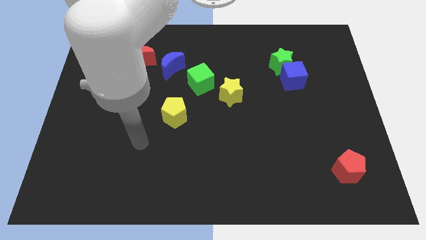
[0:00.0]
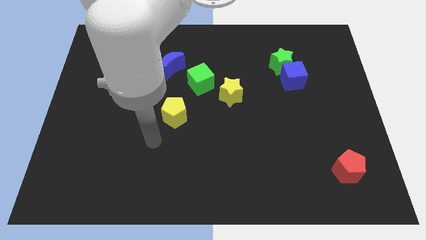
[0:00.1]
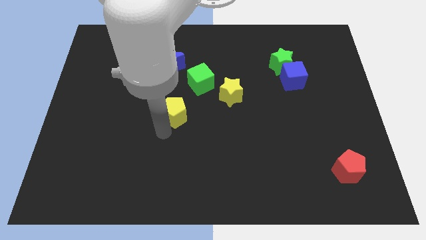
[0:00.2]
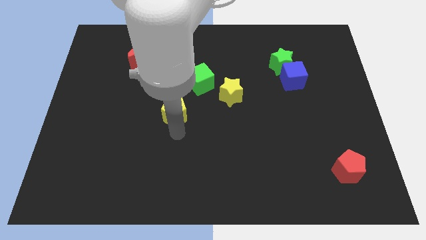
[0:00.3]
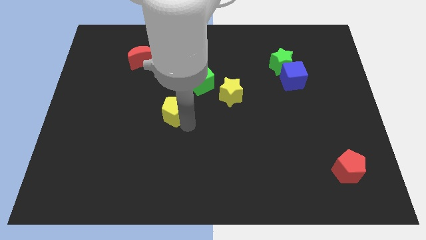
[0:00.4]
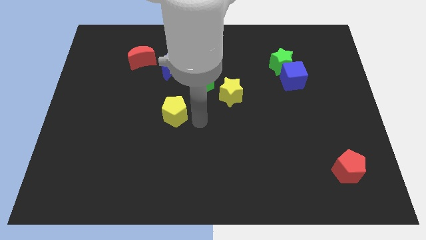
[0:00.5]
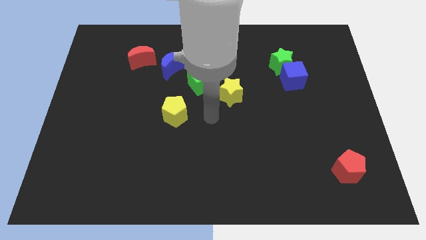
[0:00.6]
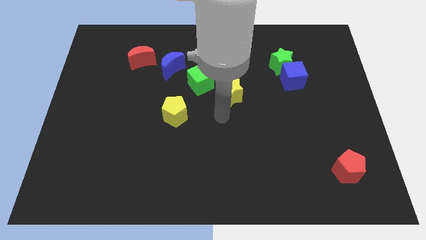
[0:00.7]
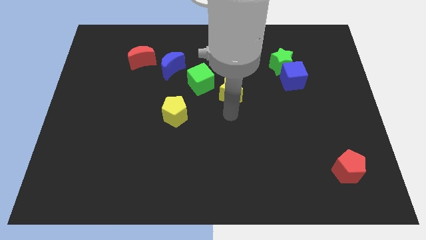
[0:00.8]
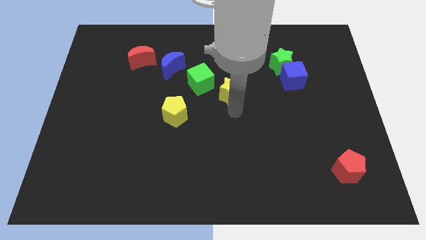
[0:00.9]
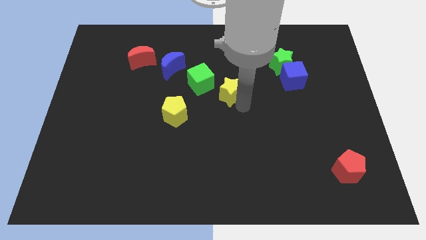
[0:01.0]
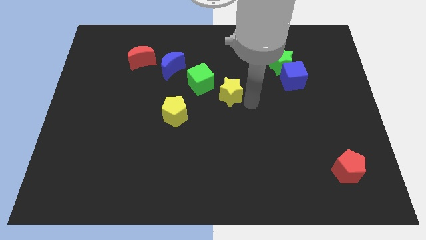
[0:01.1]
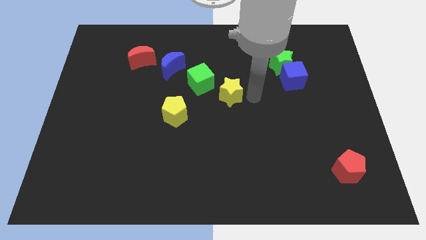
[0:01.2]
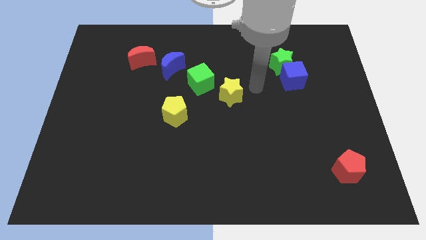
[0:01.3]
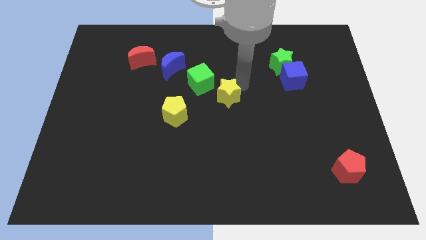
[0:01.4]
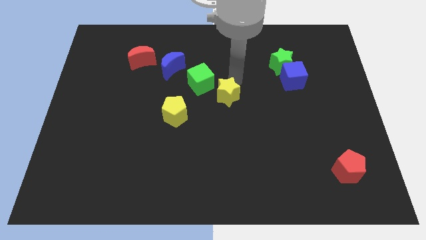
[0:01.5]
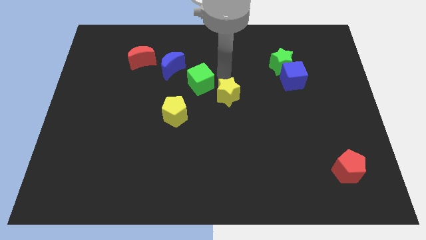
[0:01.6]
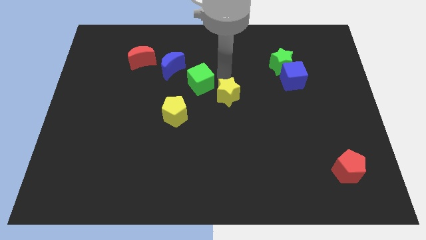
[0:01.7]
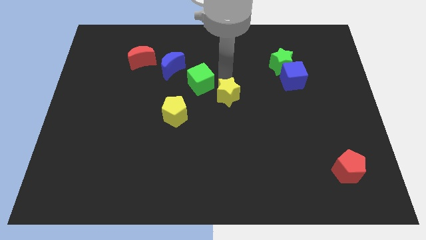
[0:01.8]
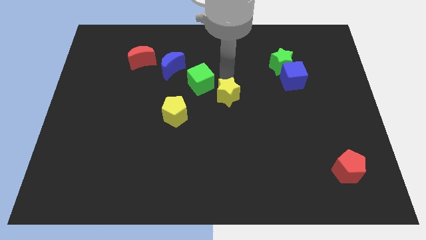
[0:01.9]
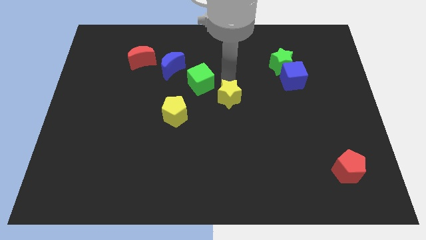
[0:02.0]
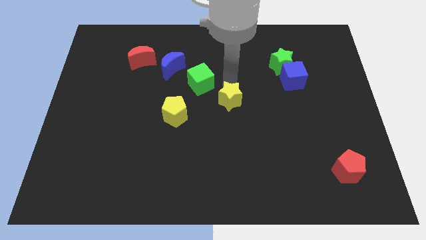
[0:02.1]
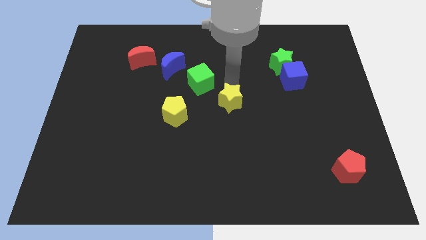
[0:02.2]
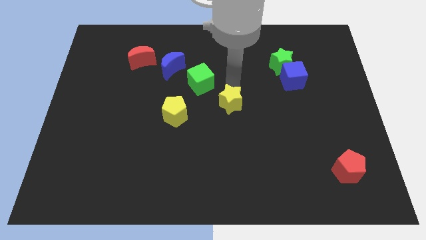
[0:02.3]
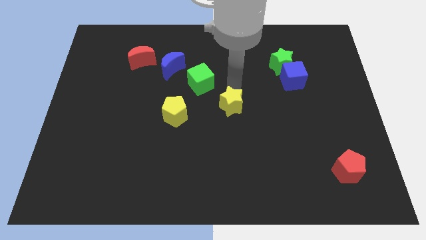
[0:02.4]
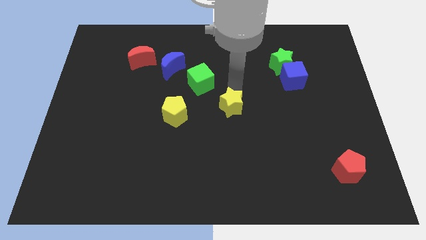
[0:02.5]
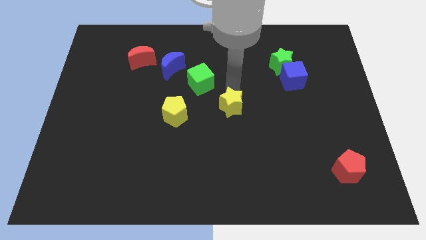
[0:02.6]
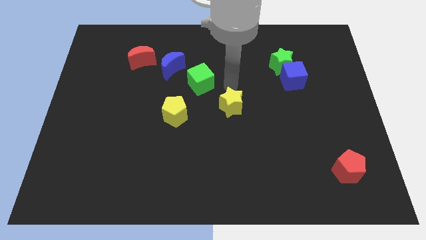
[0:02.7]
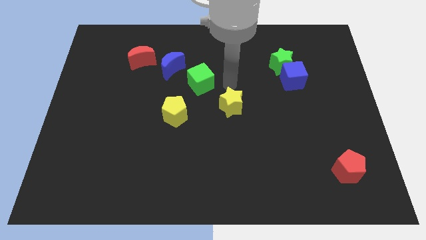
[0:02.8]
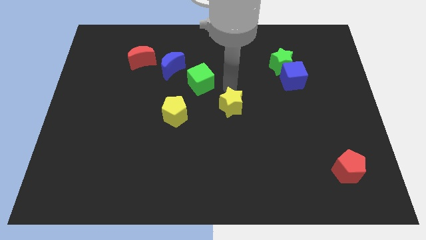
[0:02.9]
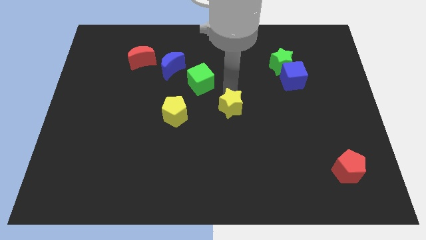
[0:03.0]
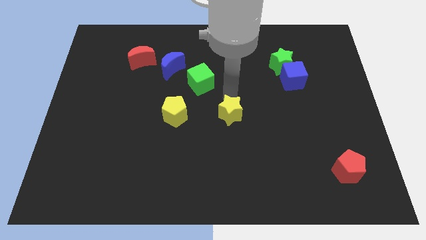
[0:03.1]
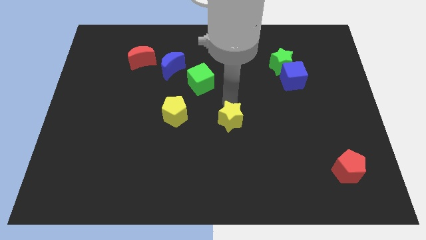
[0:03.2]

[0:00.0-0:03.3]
push the yellow star downwards a little bit

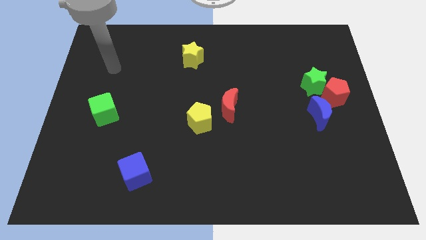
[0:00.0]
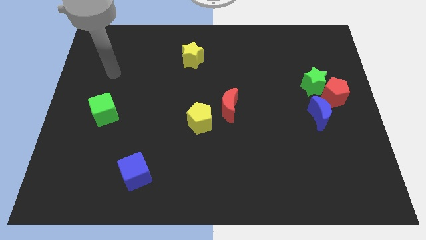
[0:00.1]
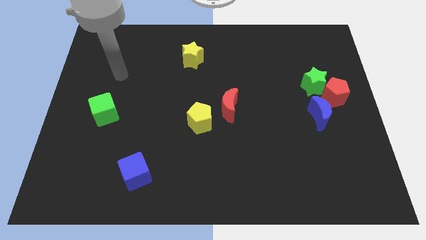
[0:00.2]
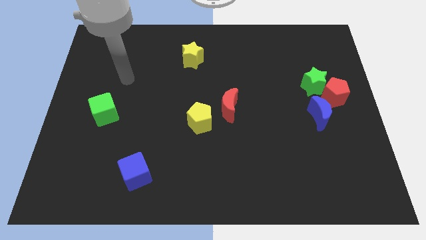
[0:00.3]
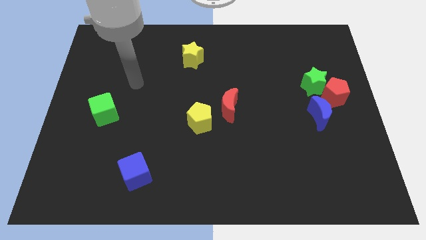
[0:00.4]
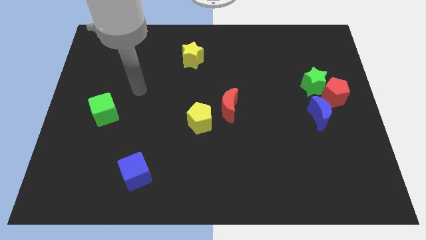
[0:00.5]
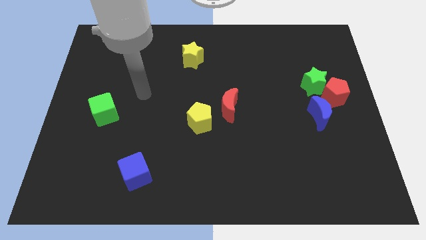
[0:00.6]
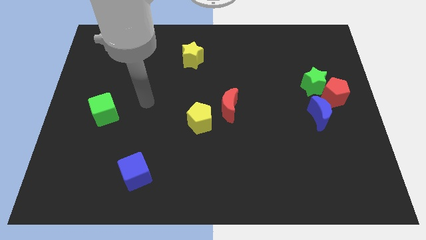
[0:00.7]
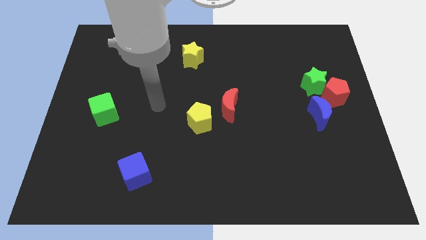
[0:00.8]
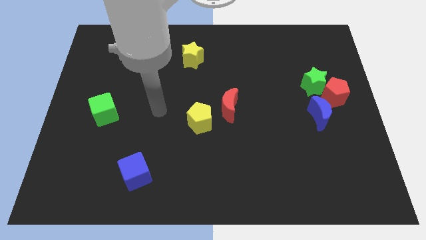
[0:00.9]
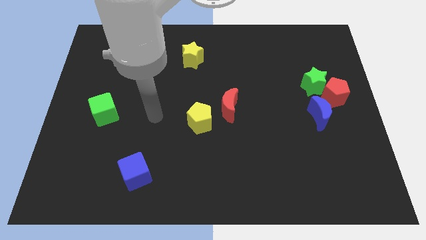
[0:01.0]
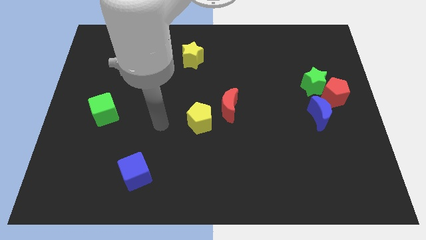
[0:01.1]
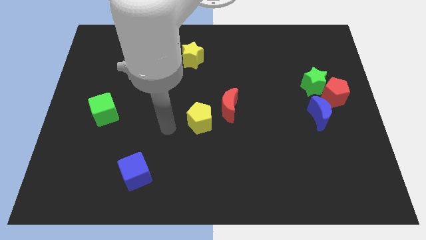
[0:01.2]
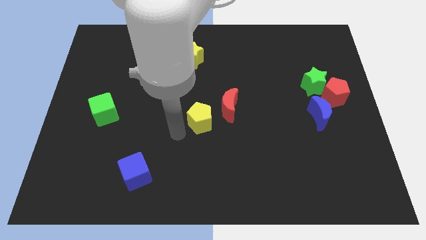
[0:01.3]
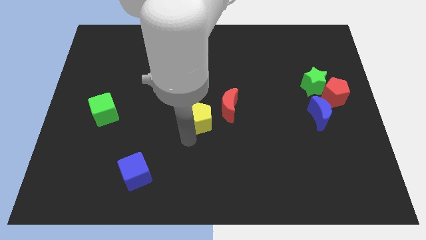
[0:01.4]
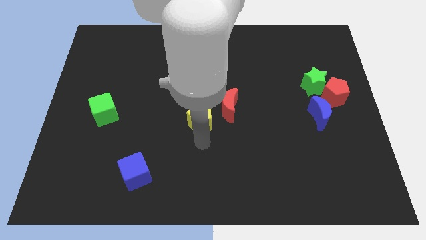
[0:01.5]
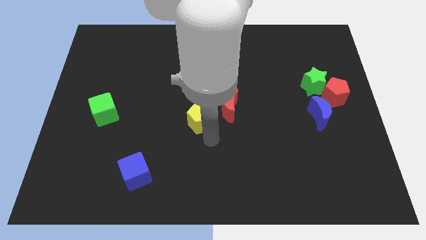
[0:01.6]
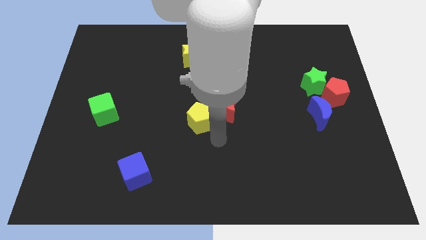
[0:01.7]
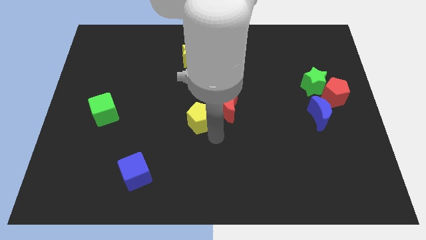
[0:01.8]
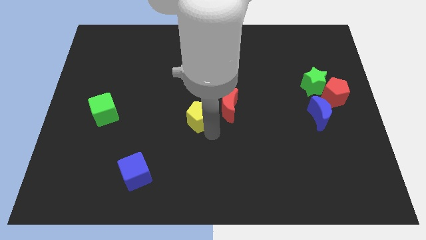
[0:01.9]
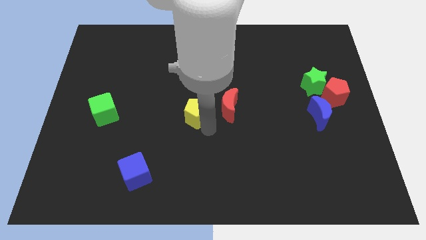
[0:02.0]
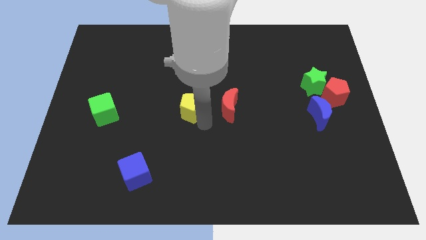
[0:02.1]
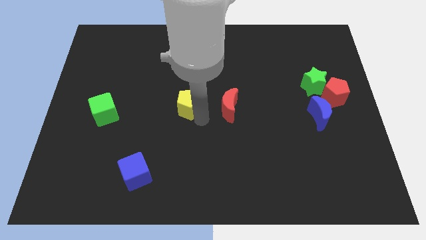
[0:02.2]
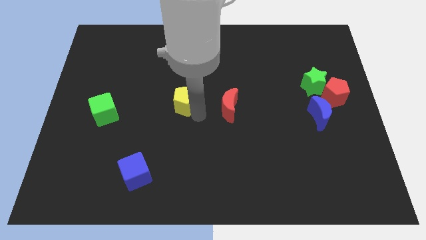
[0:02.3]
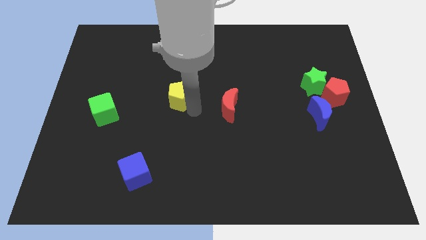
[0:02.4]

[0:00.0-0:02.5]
push the yellow pentagon a bit upwards and to the left

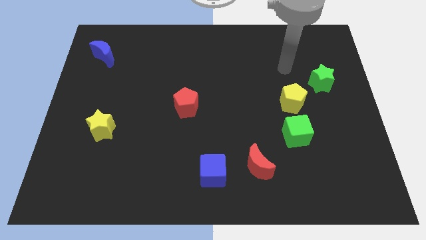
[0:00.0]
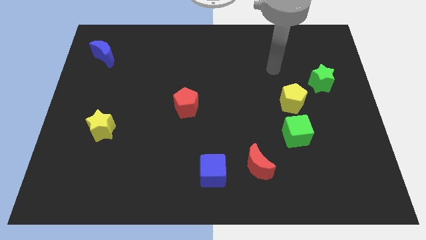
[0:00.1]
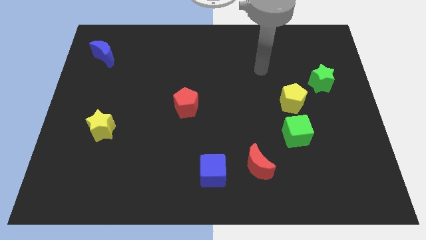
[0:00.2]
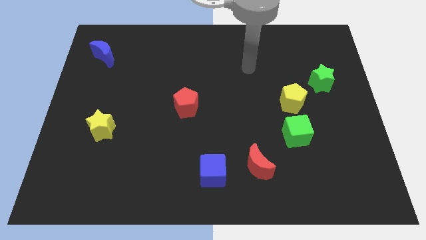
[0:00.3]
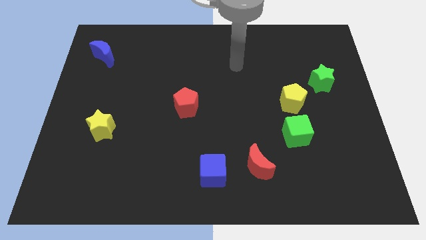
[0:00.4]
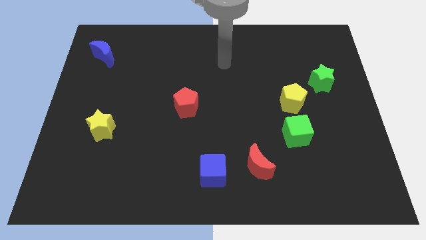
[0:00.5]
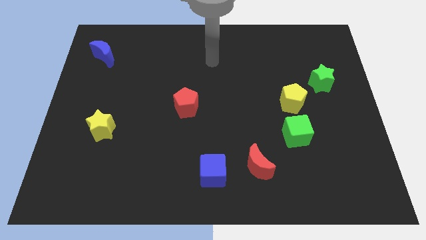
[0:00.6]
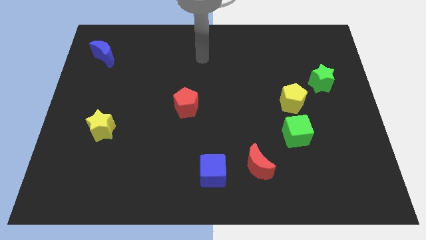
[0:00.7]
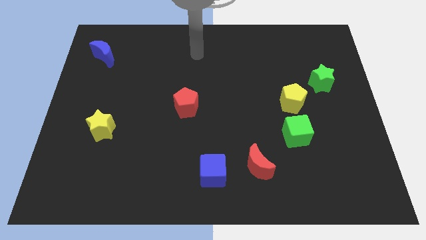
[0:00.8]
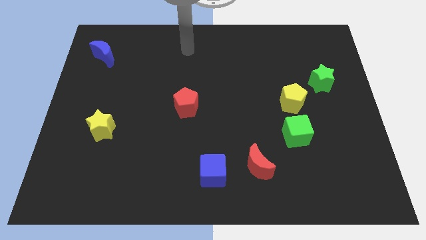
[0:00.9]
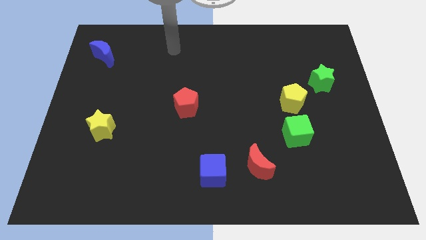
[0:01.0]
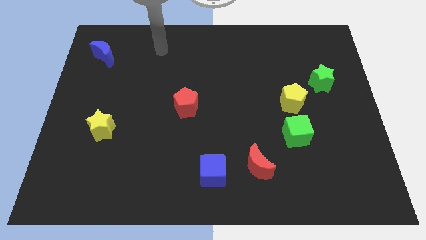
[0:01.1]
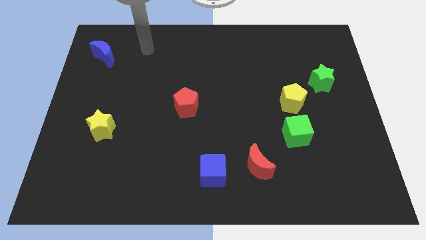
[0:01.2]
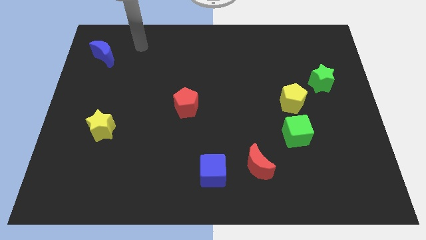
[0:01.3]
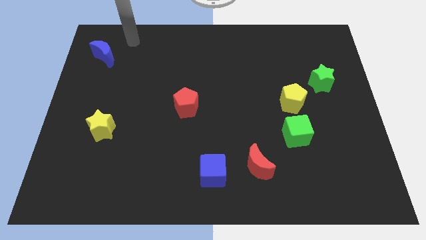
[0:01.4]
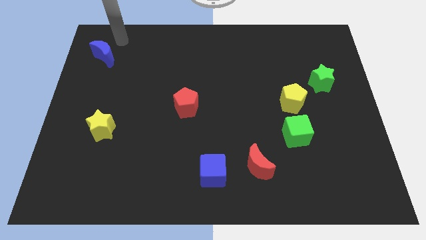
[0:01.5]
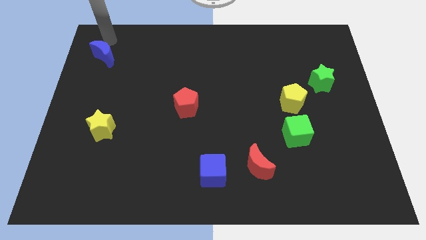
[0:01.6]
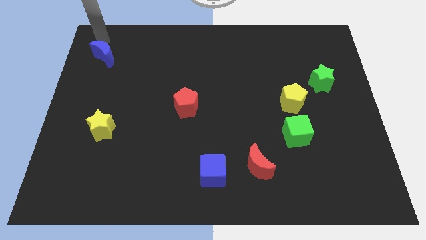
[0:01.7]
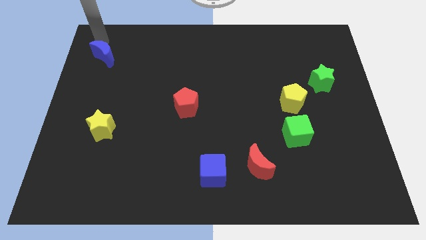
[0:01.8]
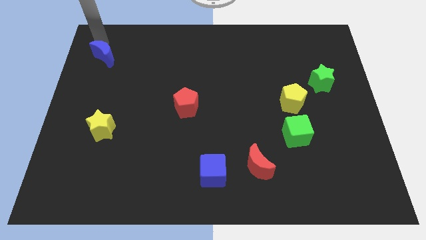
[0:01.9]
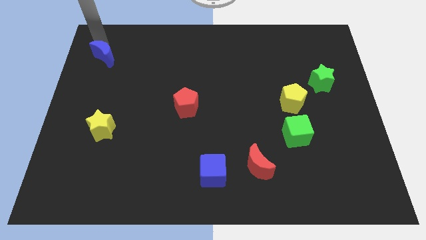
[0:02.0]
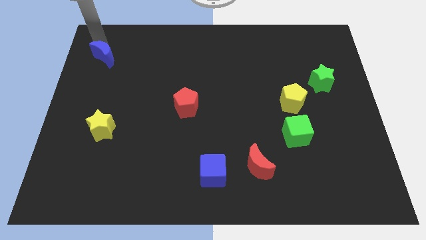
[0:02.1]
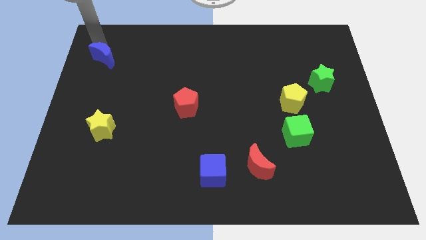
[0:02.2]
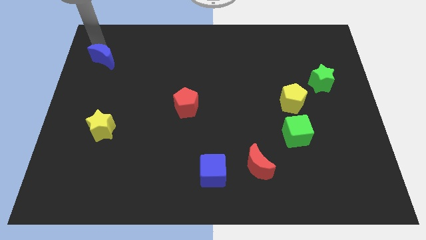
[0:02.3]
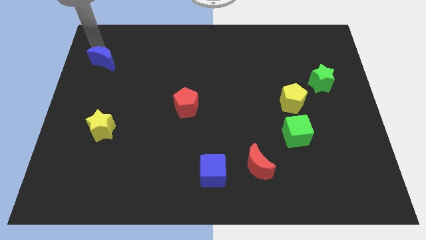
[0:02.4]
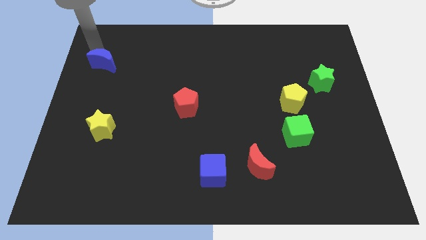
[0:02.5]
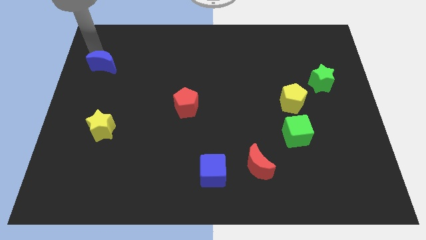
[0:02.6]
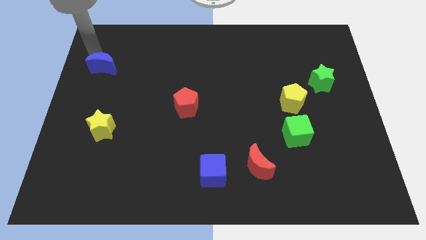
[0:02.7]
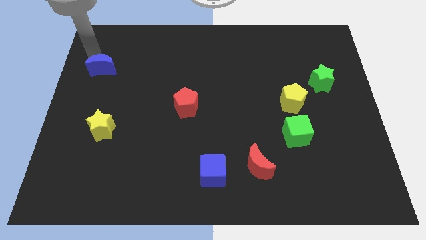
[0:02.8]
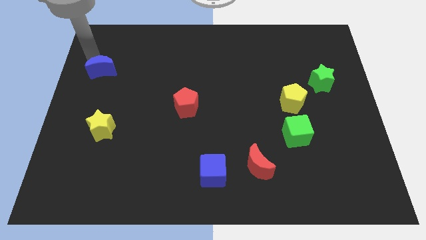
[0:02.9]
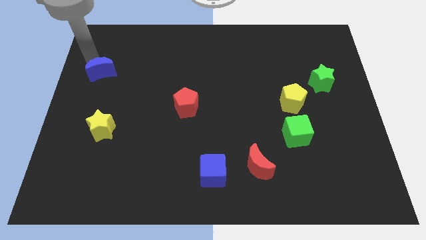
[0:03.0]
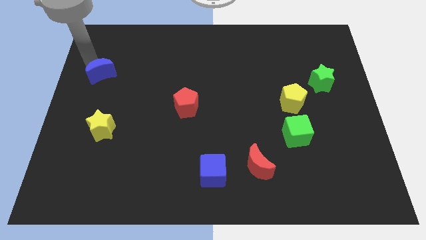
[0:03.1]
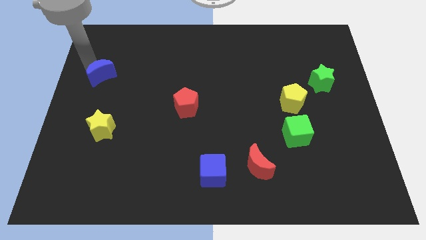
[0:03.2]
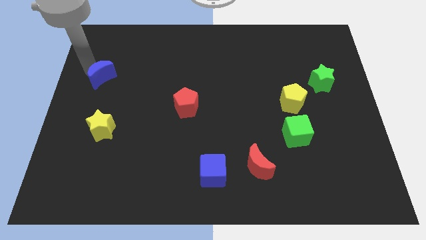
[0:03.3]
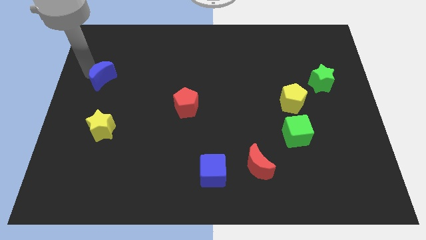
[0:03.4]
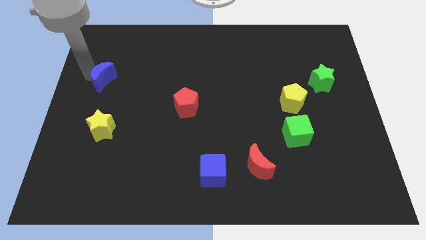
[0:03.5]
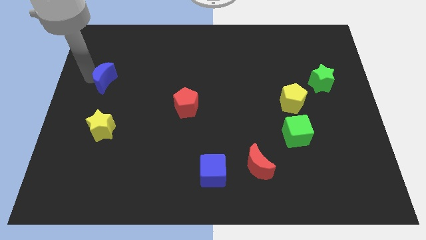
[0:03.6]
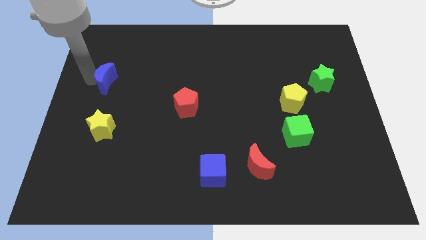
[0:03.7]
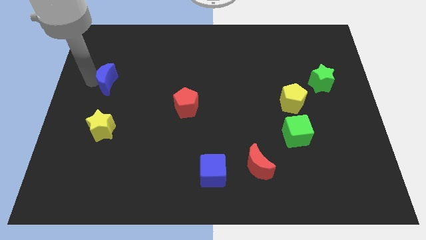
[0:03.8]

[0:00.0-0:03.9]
move the blue moon slightly downwards and to the right diagonally
